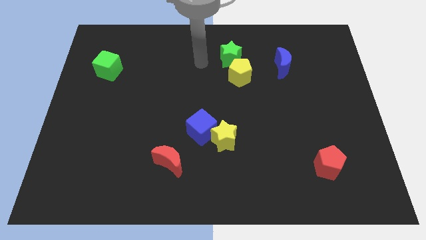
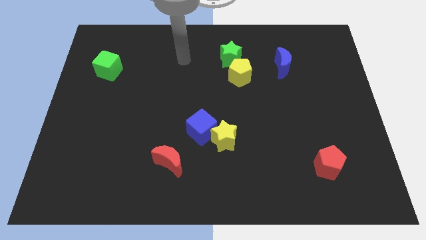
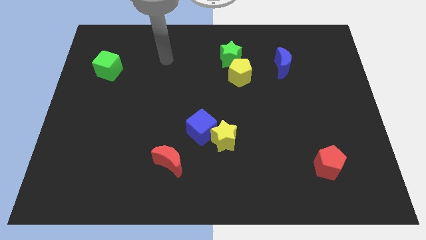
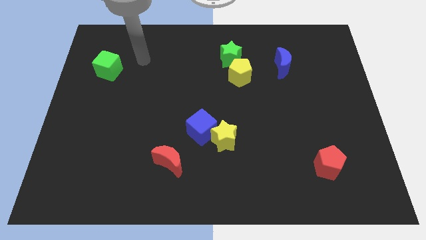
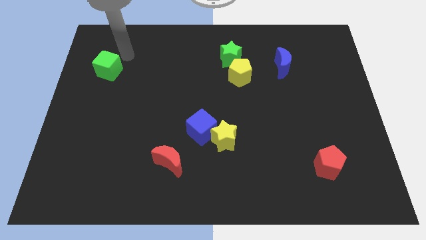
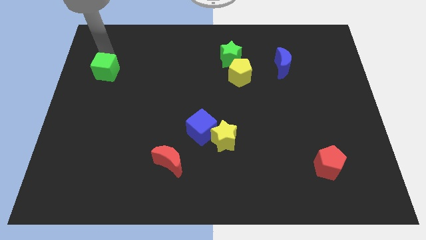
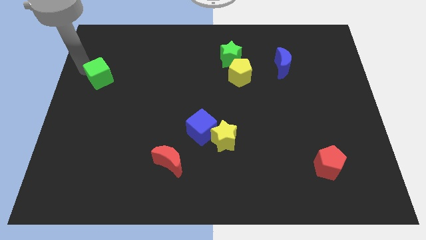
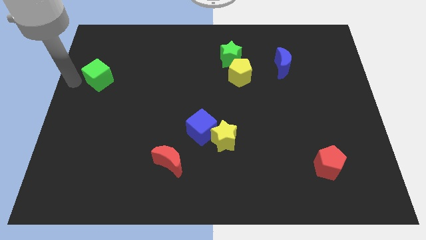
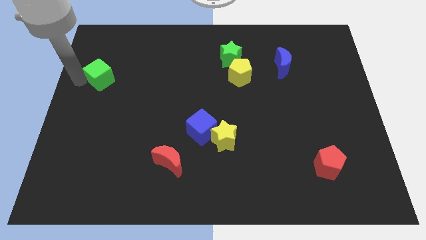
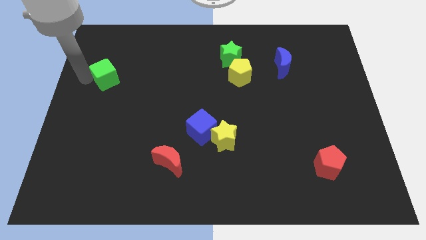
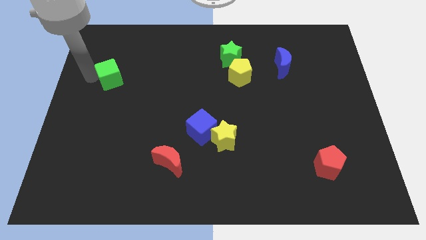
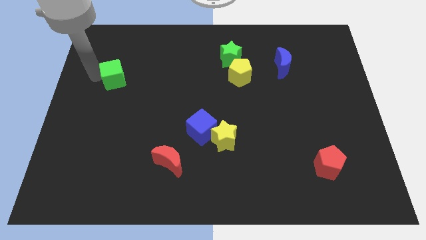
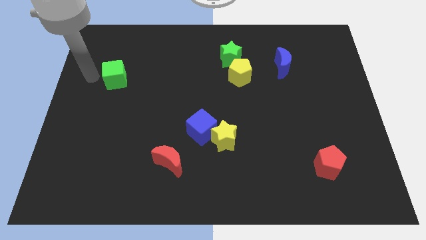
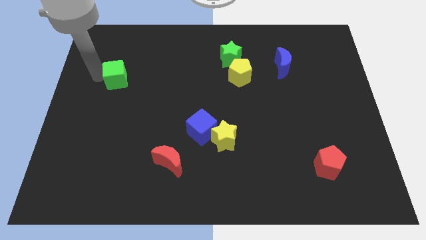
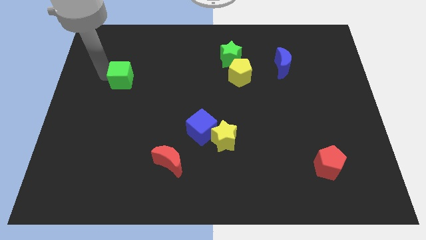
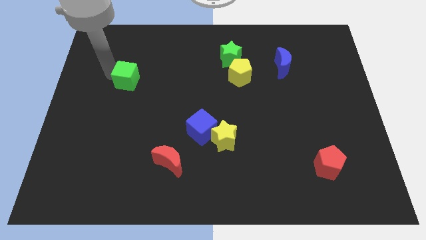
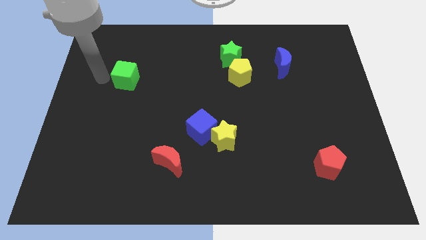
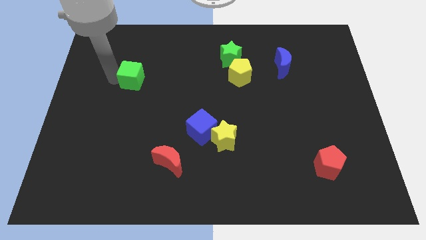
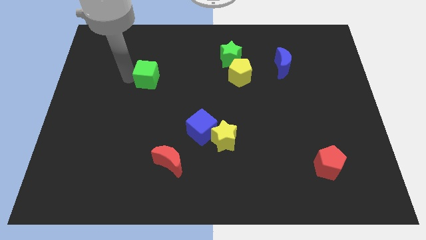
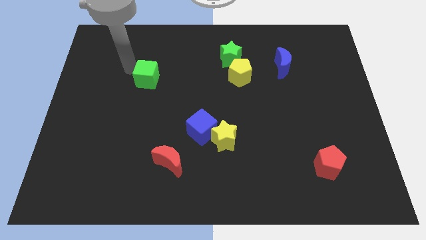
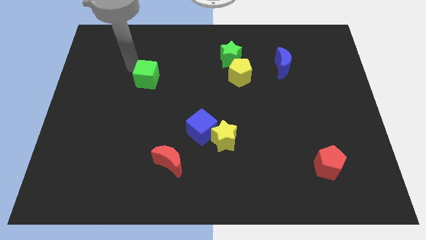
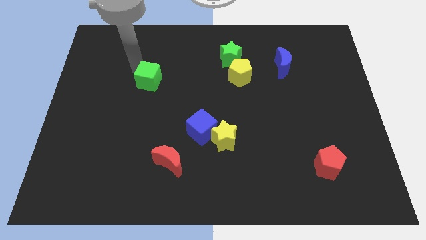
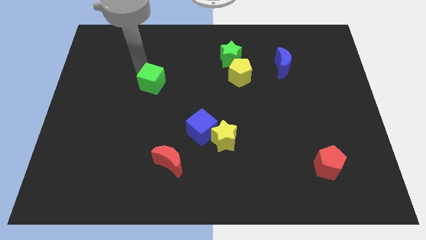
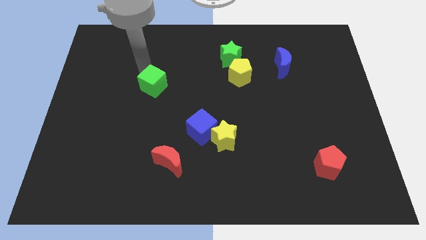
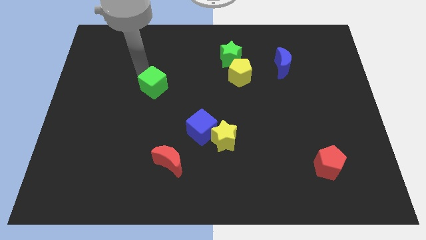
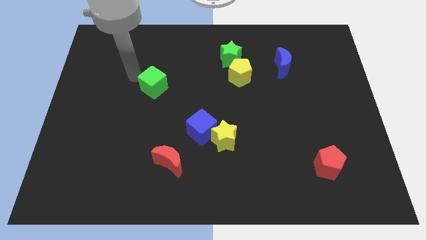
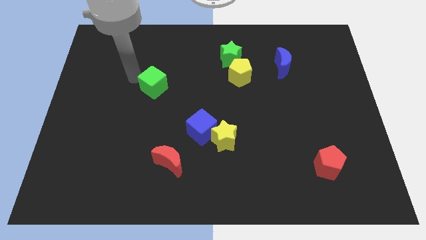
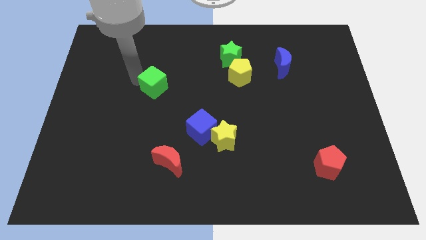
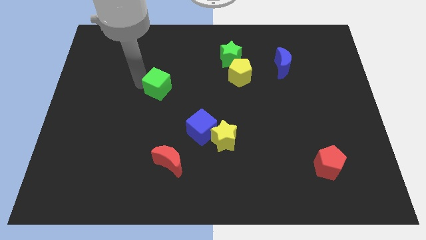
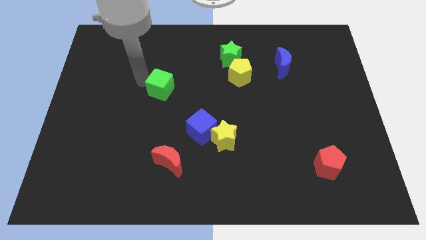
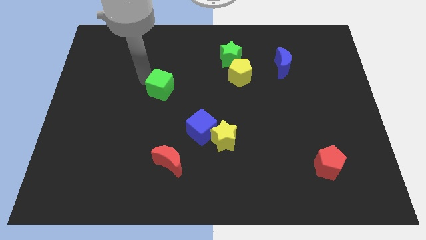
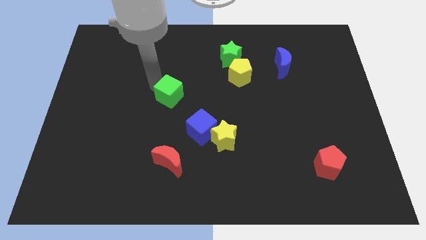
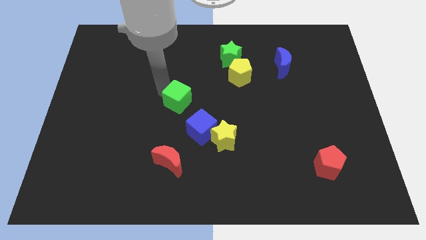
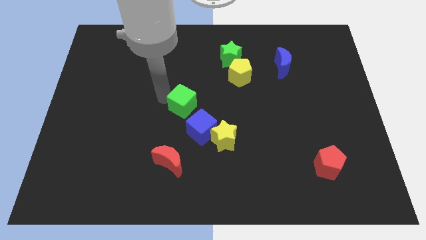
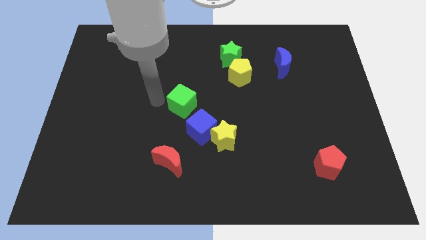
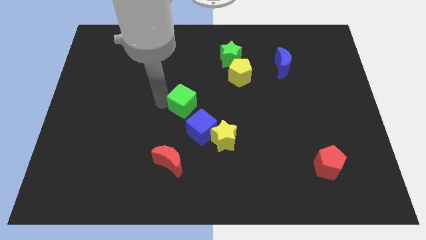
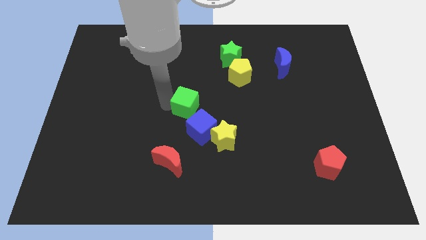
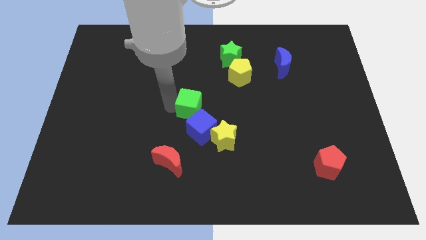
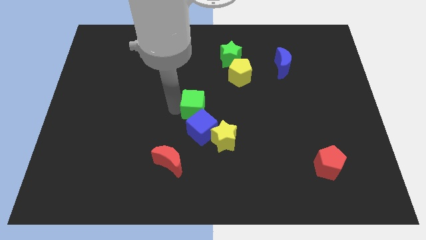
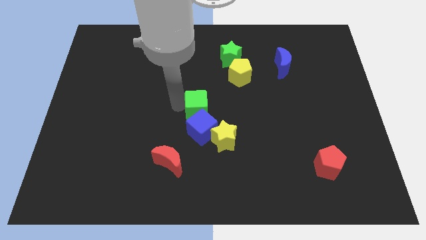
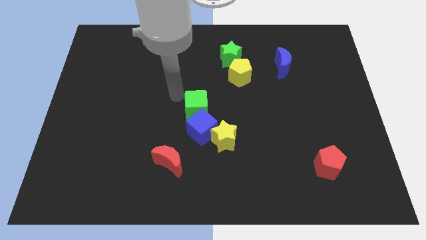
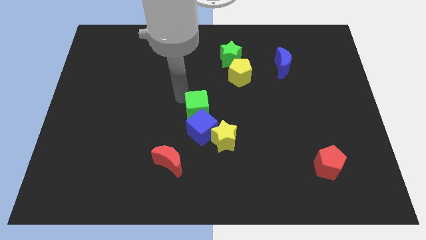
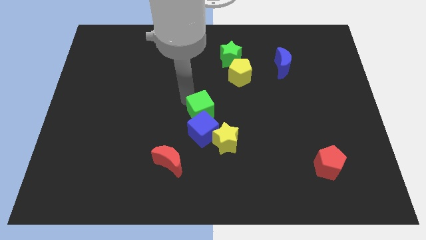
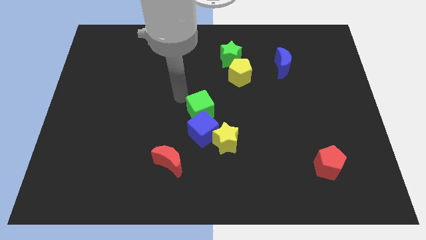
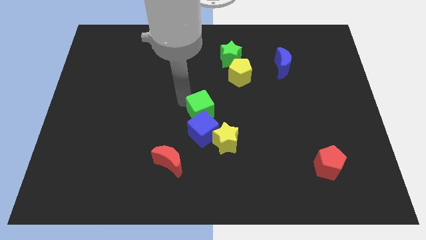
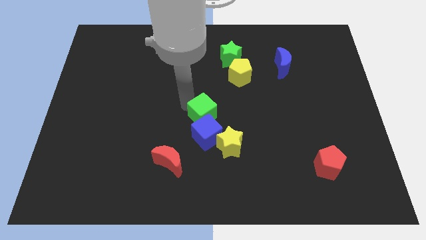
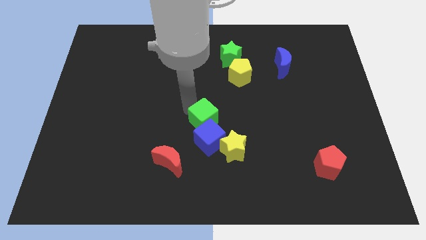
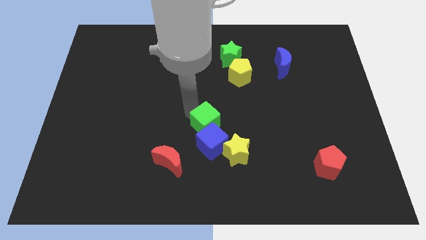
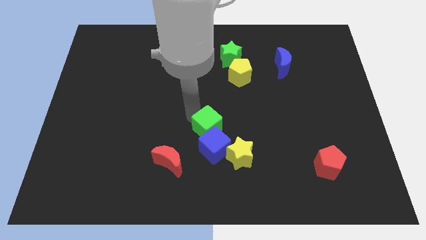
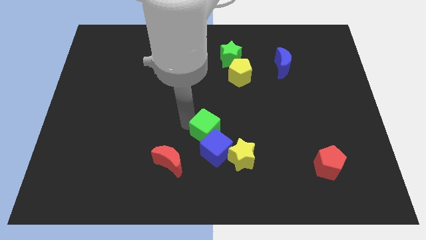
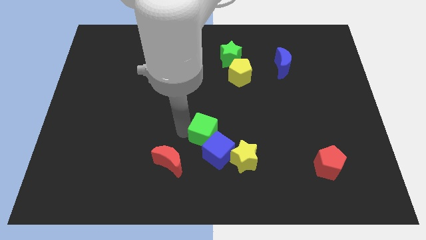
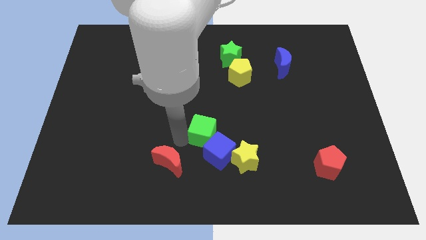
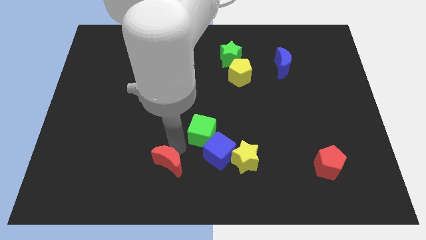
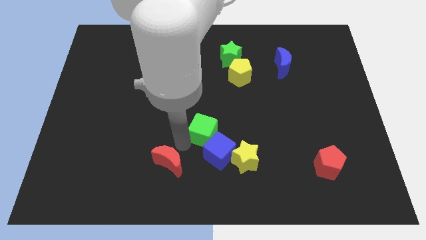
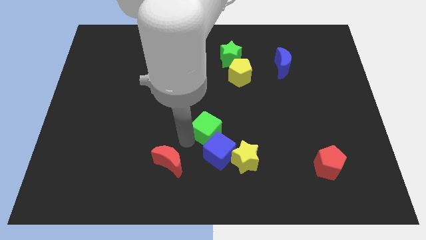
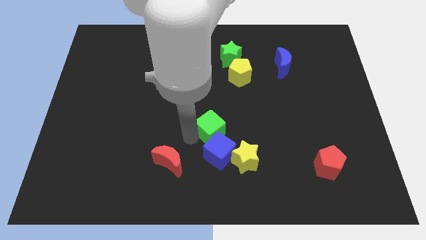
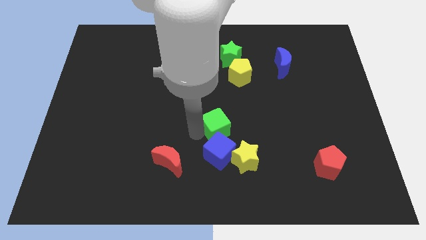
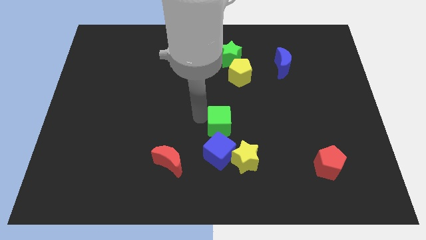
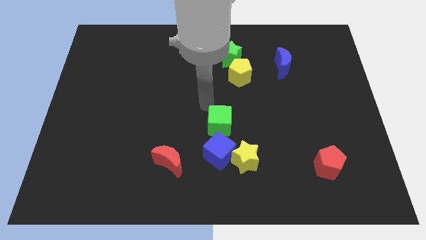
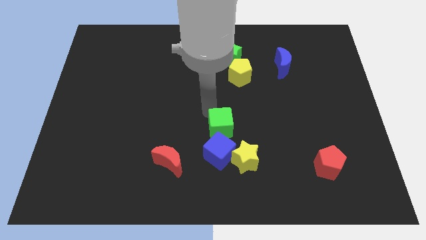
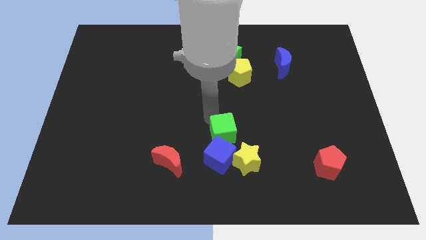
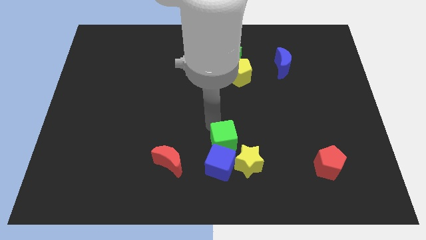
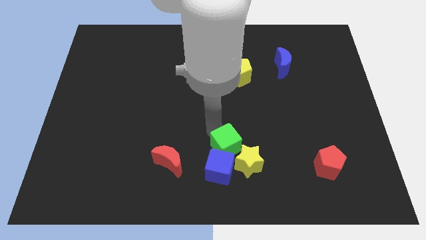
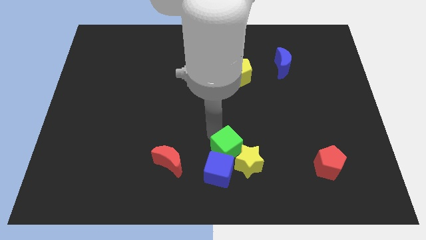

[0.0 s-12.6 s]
slide the green cube to the yellow star

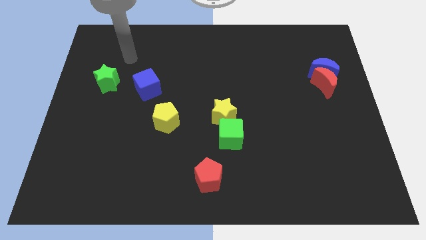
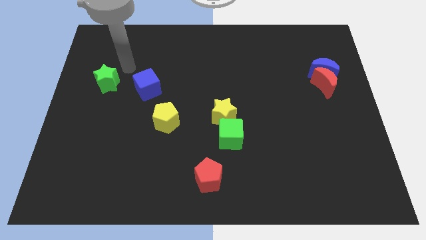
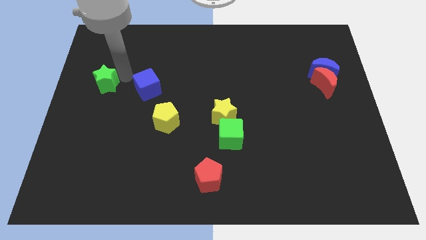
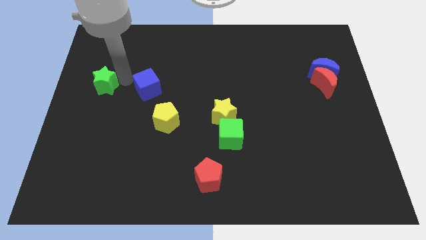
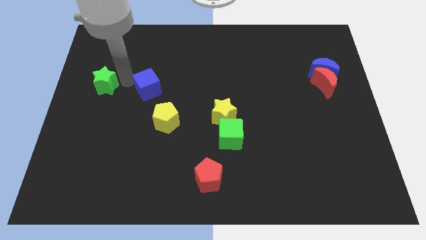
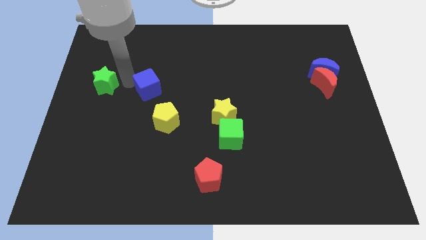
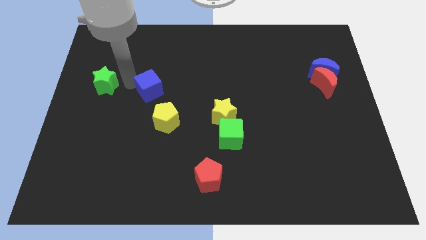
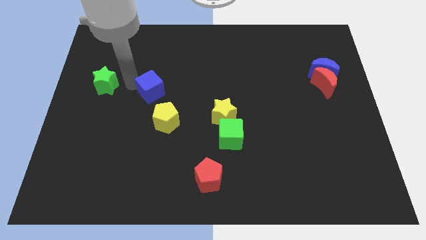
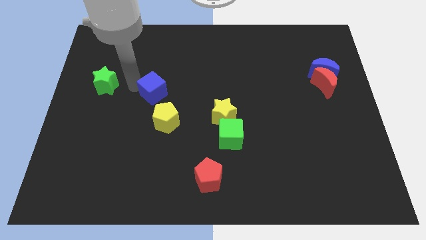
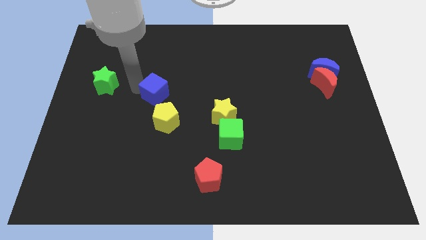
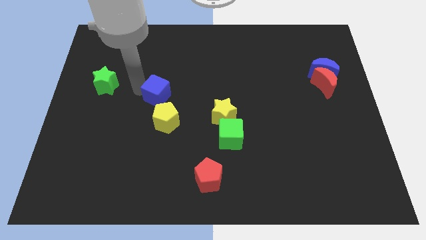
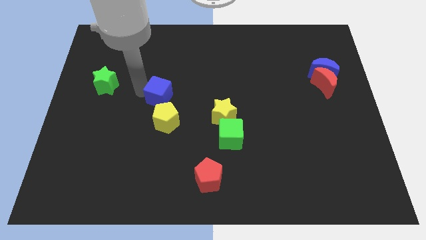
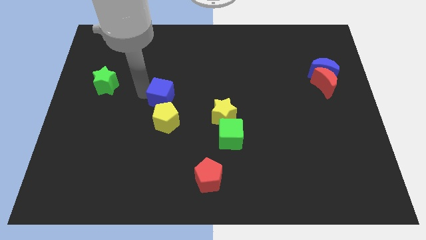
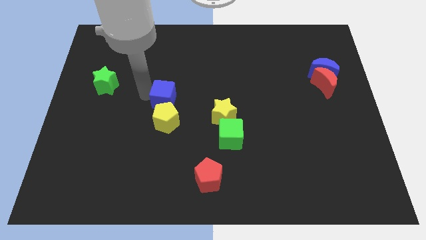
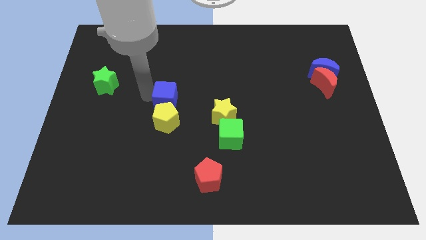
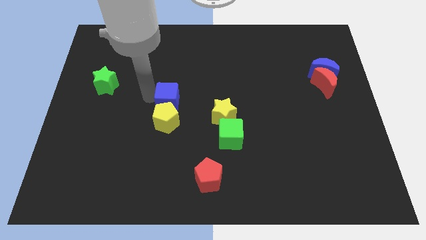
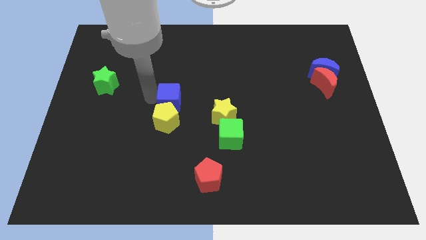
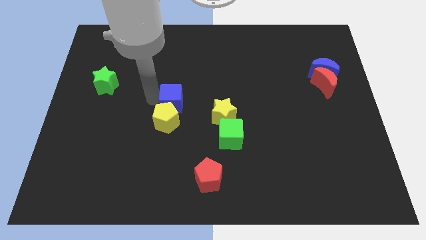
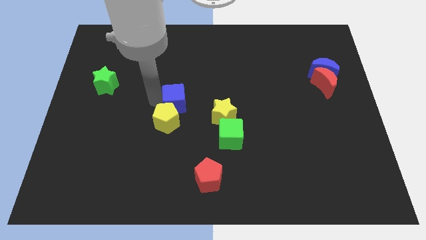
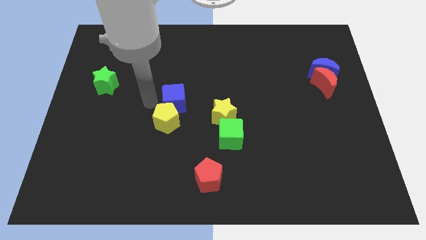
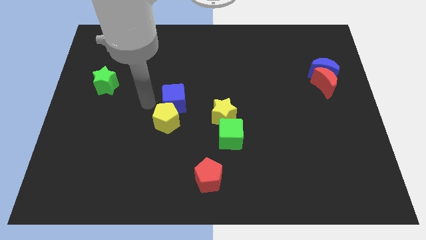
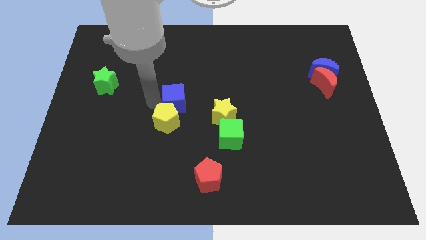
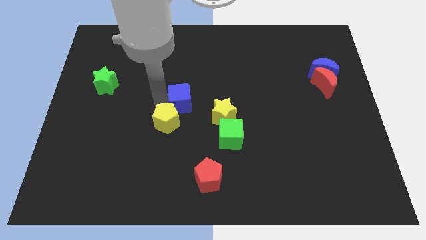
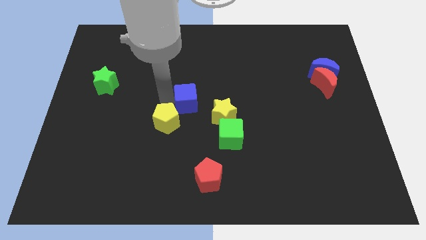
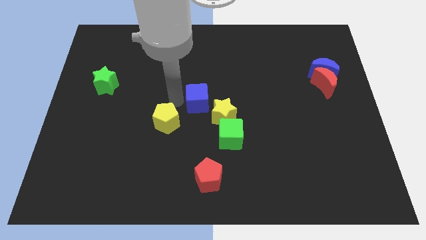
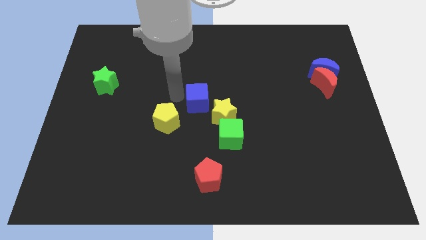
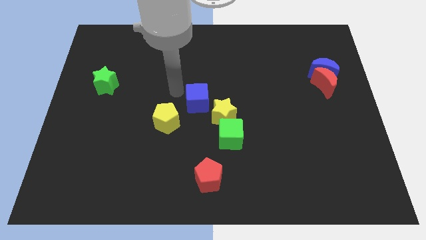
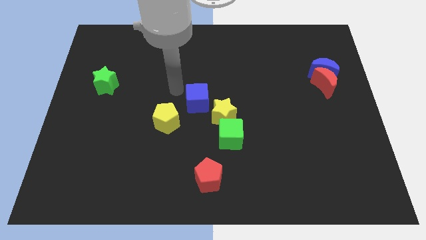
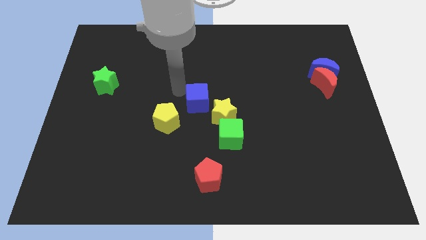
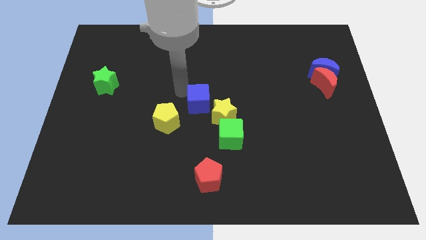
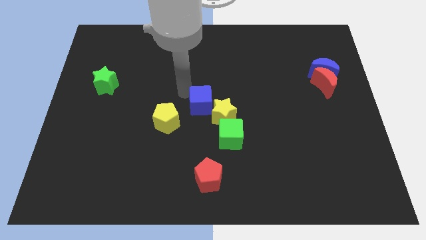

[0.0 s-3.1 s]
move the blue cube to the yellow star
